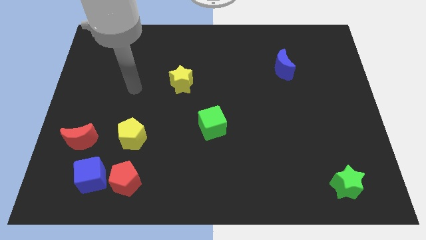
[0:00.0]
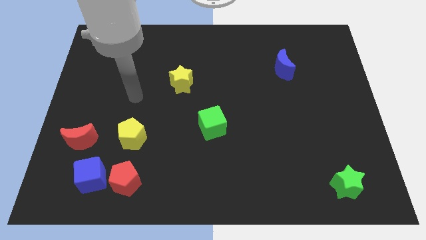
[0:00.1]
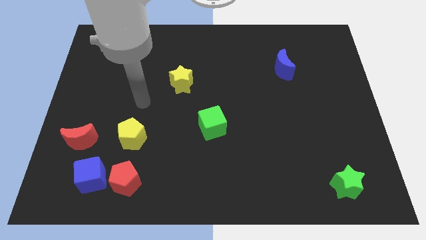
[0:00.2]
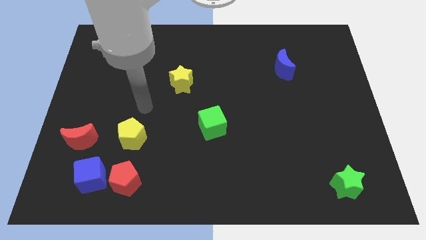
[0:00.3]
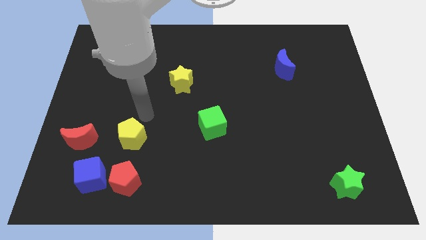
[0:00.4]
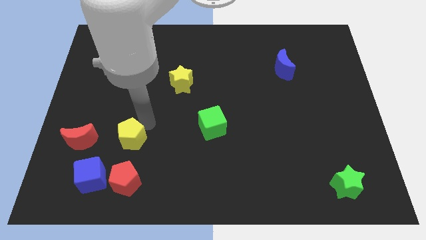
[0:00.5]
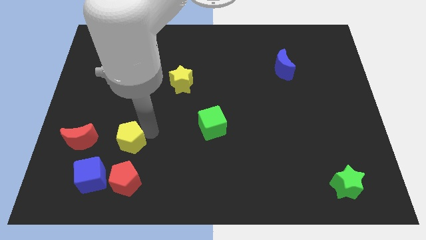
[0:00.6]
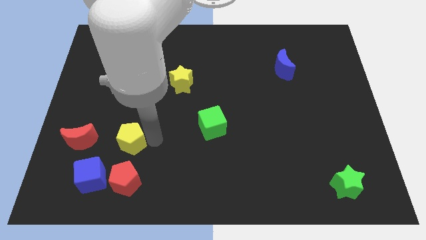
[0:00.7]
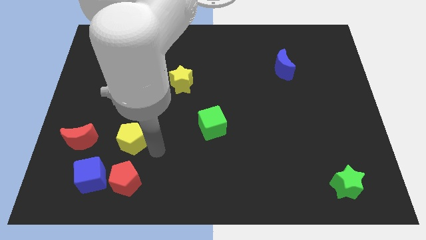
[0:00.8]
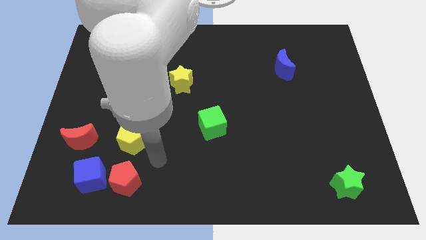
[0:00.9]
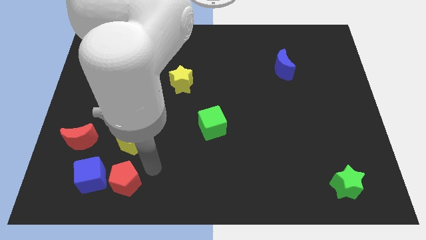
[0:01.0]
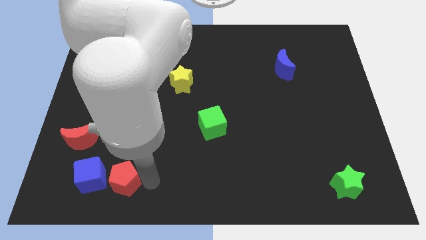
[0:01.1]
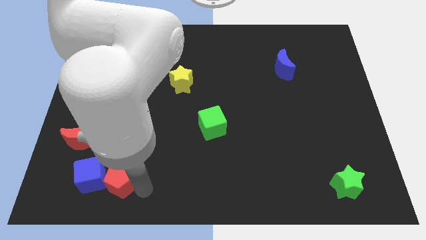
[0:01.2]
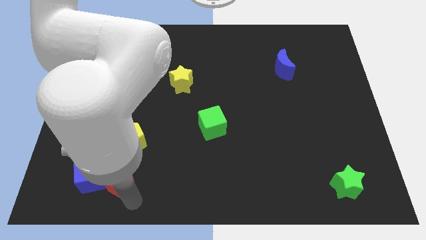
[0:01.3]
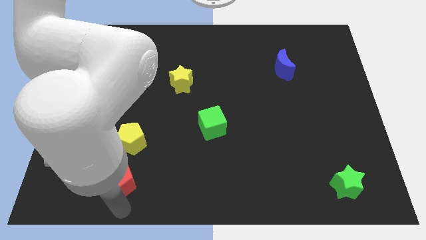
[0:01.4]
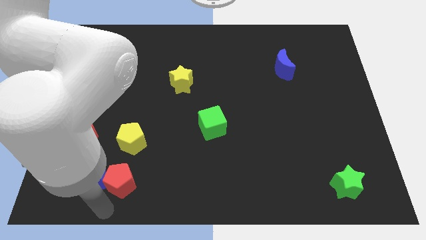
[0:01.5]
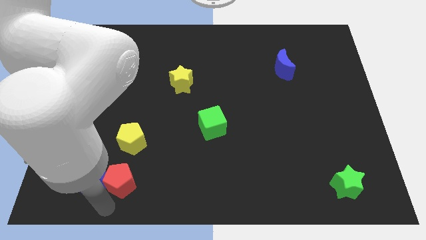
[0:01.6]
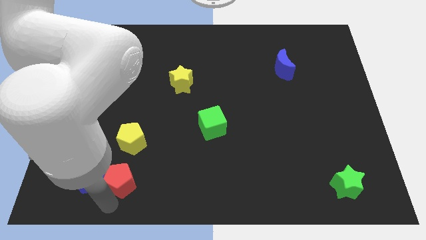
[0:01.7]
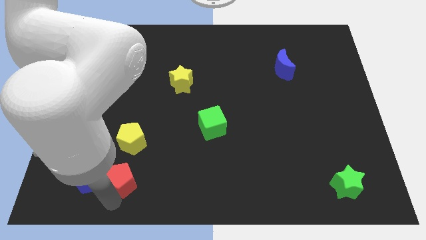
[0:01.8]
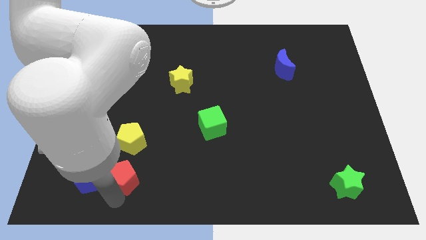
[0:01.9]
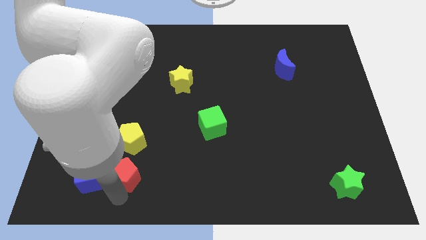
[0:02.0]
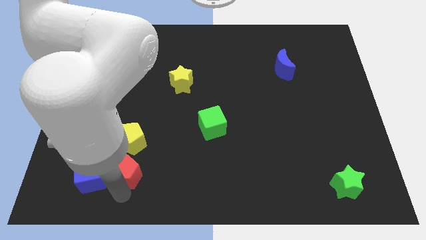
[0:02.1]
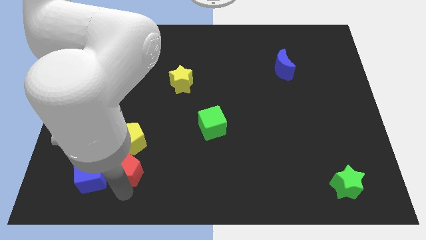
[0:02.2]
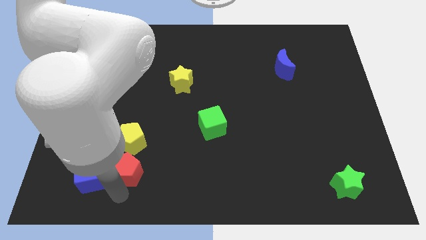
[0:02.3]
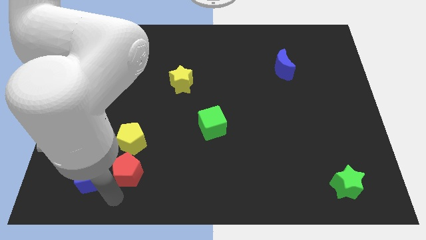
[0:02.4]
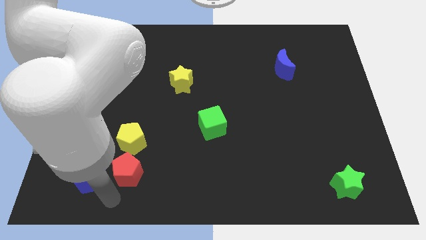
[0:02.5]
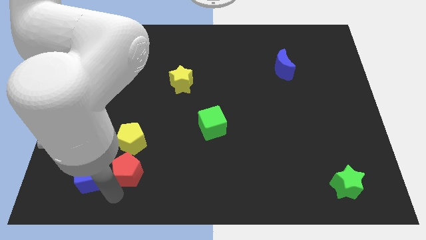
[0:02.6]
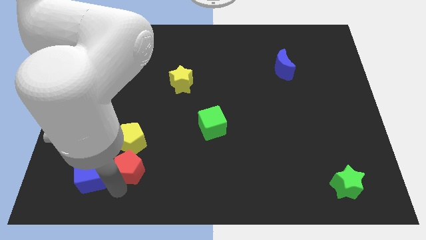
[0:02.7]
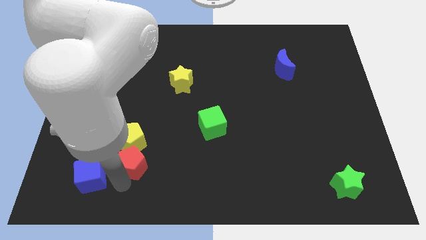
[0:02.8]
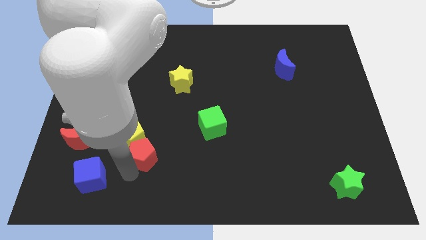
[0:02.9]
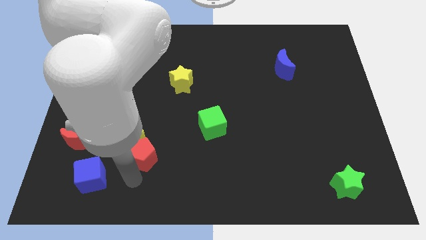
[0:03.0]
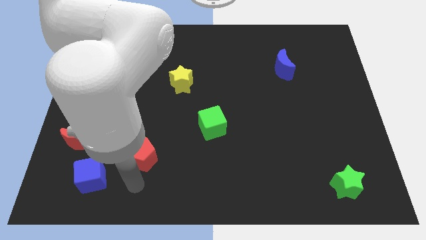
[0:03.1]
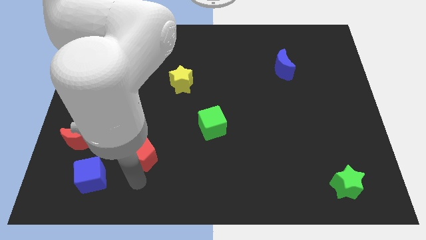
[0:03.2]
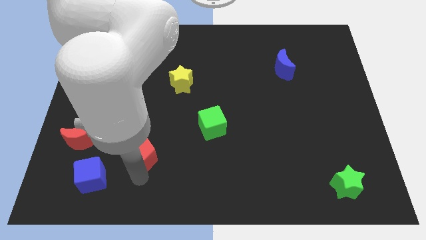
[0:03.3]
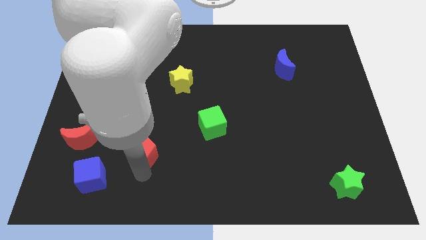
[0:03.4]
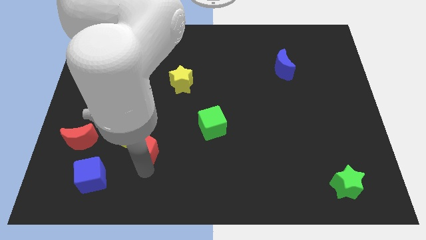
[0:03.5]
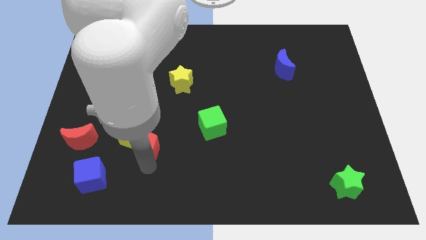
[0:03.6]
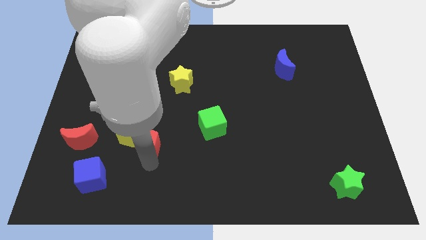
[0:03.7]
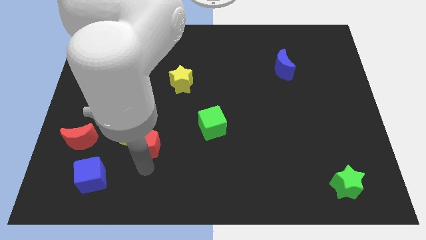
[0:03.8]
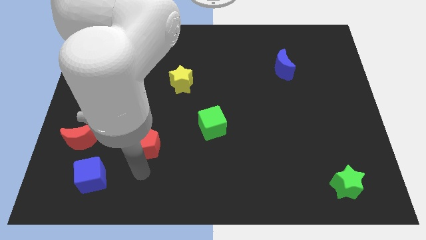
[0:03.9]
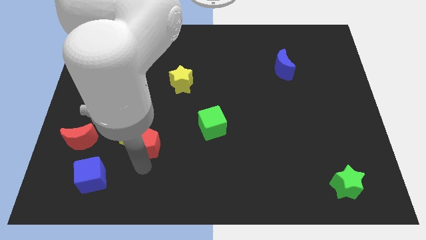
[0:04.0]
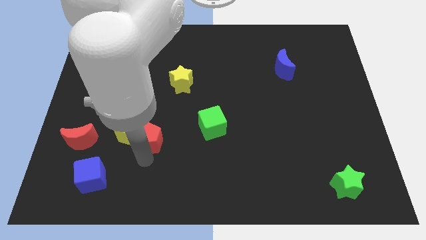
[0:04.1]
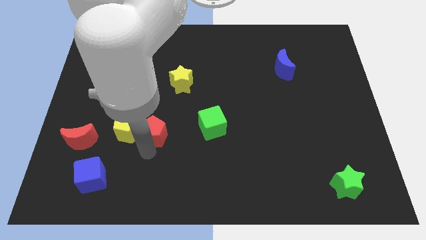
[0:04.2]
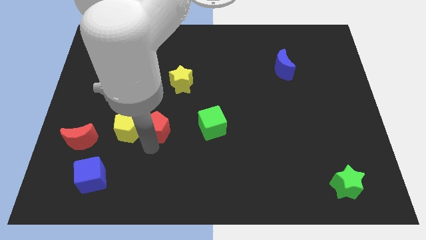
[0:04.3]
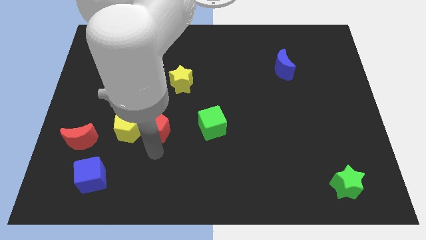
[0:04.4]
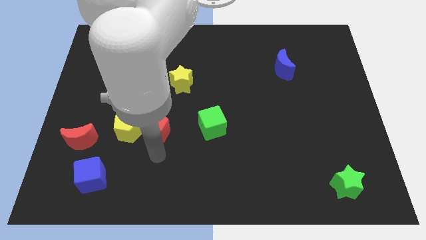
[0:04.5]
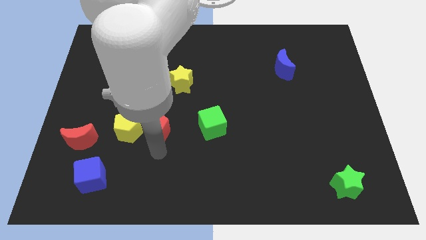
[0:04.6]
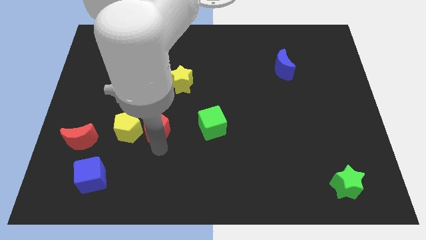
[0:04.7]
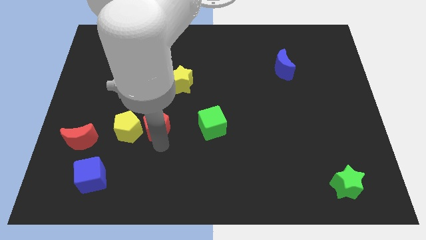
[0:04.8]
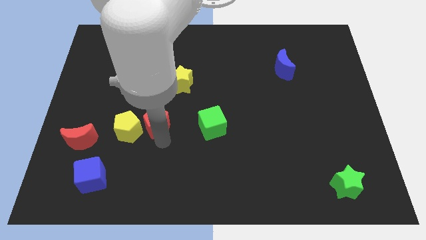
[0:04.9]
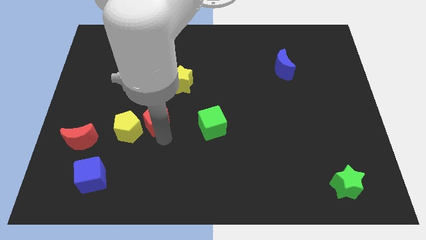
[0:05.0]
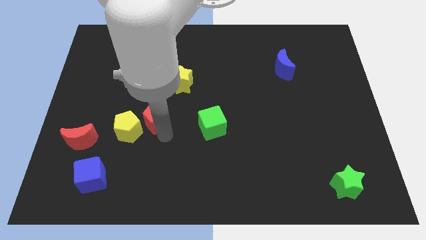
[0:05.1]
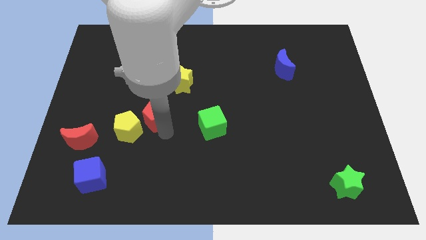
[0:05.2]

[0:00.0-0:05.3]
push the red pentagon to the bottom left side of the yellow star

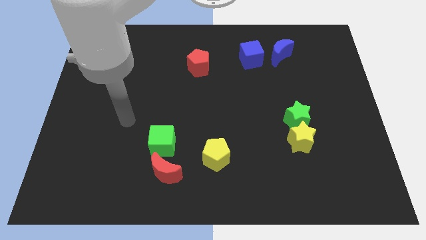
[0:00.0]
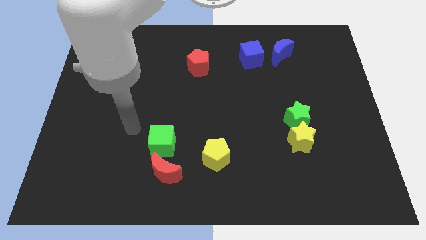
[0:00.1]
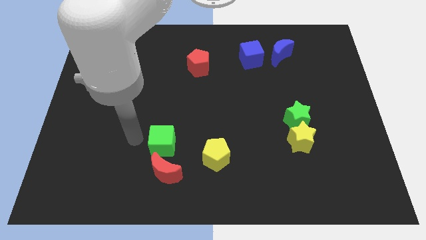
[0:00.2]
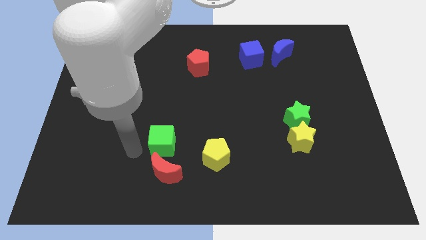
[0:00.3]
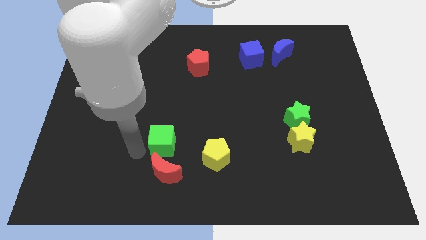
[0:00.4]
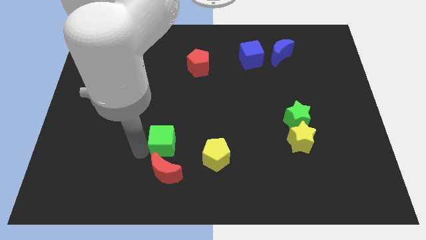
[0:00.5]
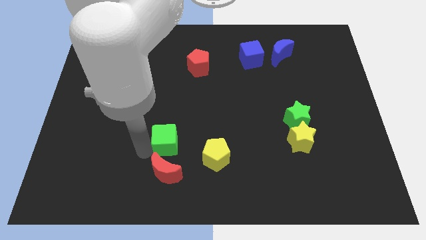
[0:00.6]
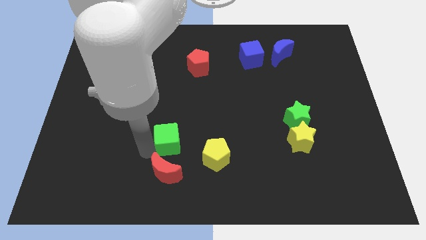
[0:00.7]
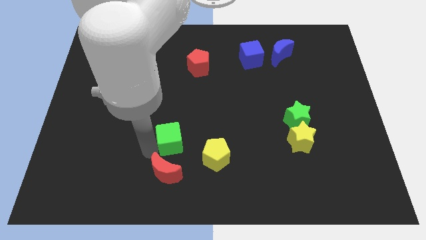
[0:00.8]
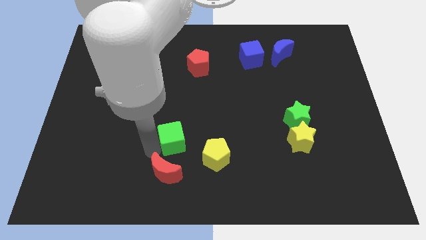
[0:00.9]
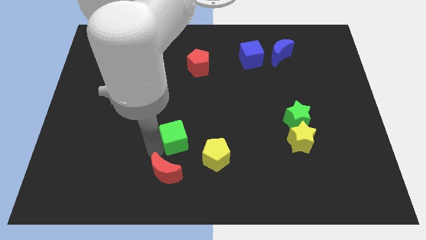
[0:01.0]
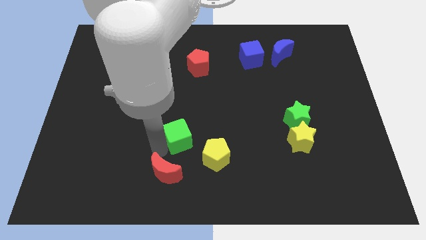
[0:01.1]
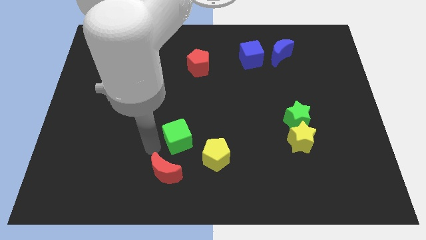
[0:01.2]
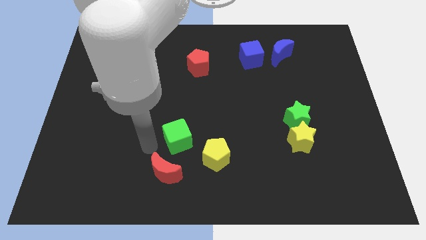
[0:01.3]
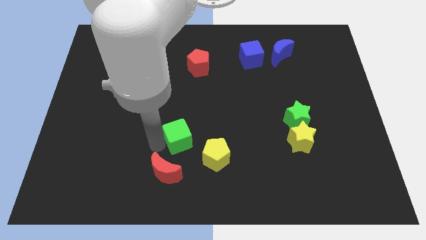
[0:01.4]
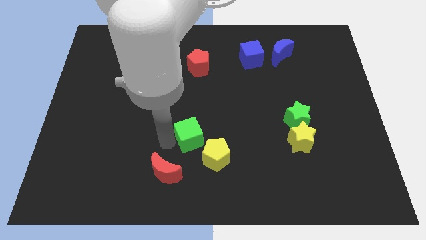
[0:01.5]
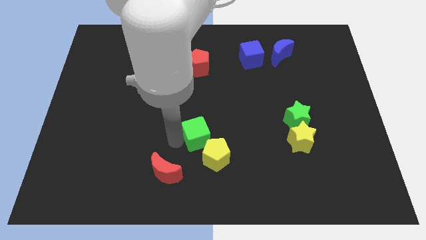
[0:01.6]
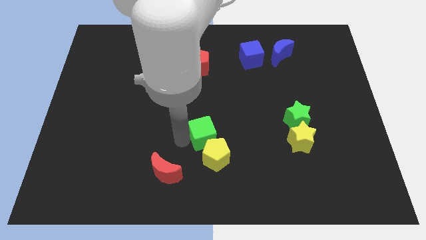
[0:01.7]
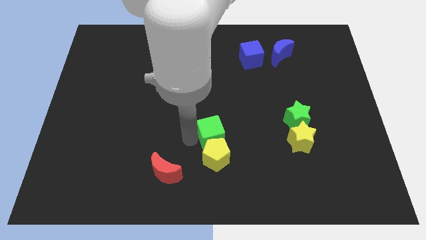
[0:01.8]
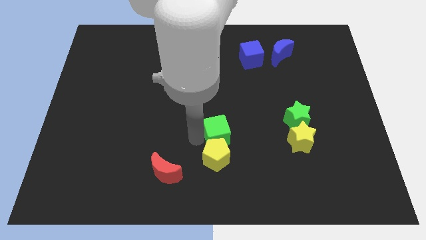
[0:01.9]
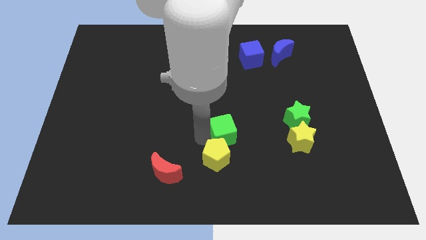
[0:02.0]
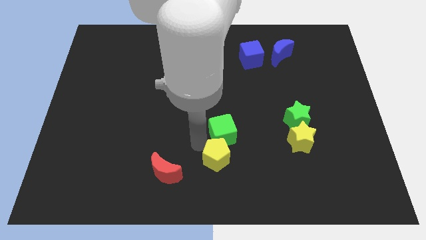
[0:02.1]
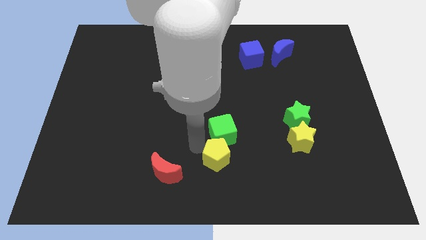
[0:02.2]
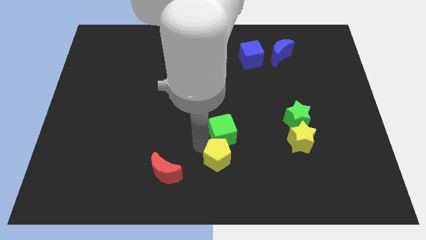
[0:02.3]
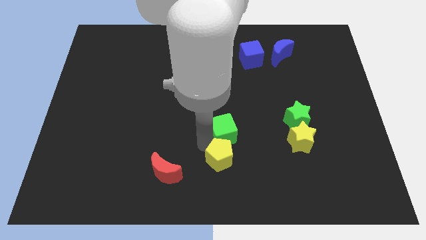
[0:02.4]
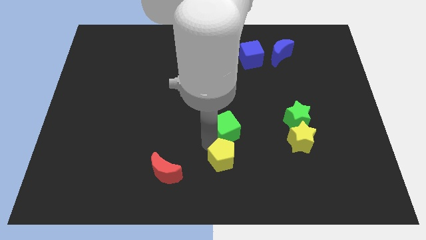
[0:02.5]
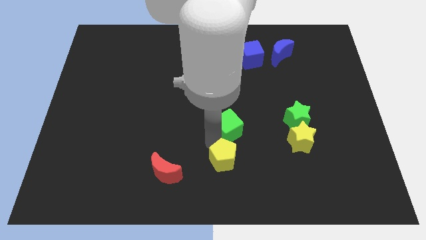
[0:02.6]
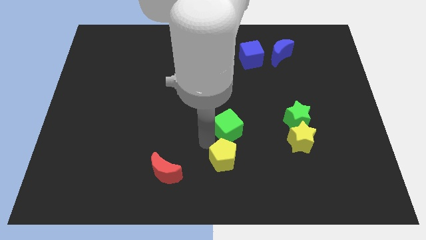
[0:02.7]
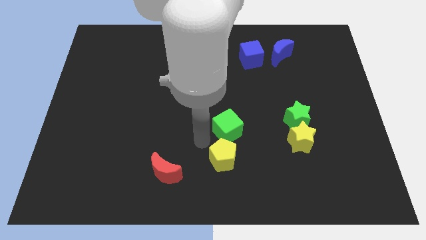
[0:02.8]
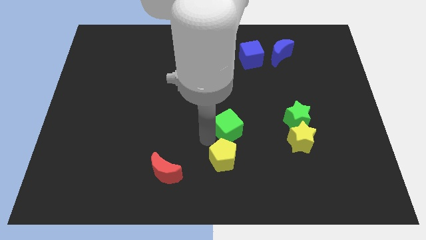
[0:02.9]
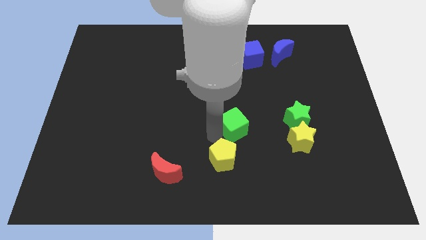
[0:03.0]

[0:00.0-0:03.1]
put the green cube to the left of the green star

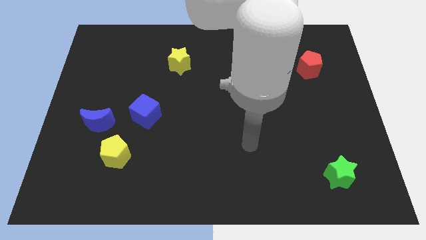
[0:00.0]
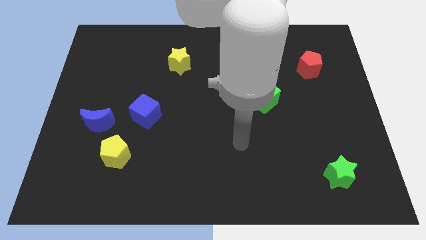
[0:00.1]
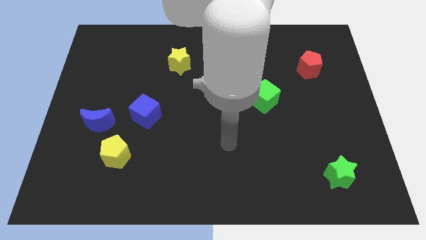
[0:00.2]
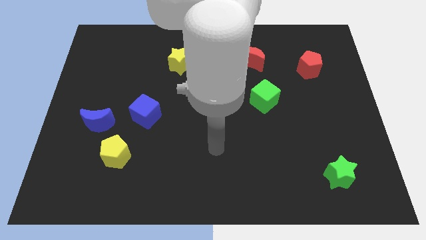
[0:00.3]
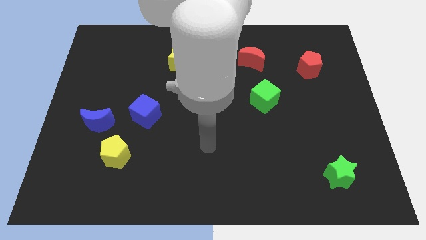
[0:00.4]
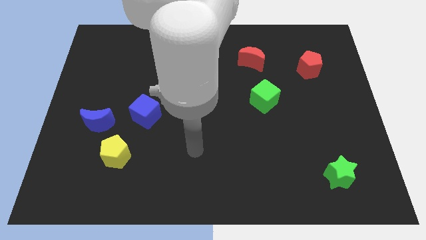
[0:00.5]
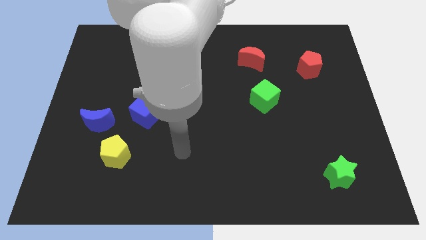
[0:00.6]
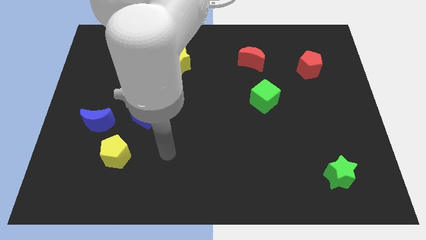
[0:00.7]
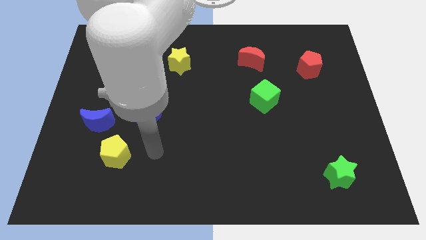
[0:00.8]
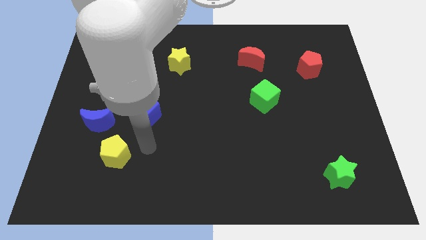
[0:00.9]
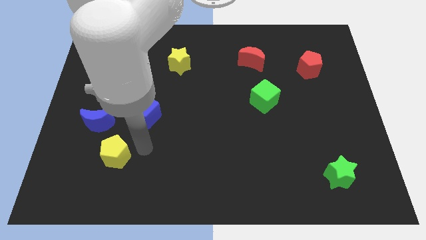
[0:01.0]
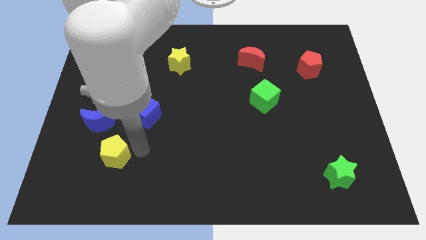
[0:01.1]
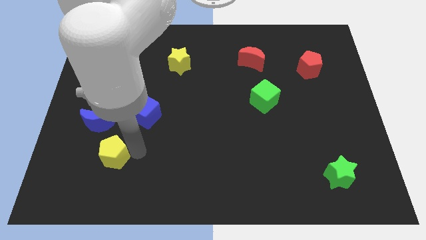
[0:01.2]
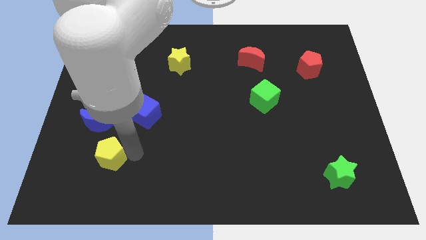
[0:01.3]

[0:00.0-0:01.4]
push the yellow pentagon below the blue moon
